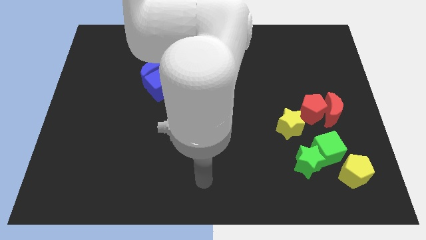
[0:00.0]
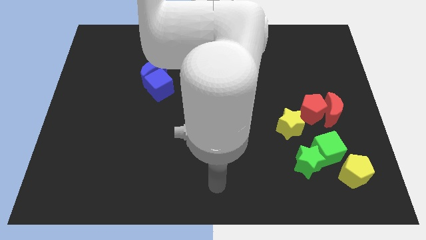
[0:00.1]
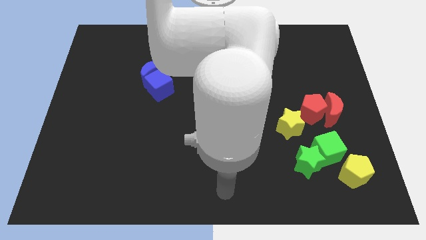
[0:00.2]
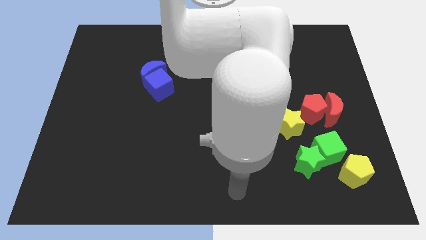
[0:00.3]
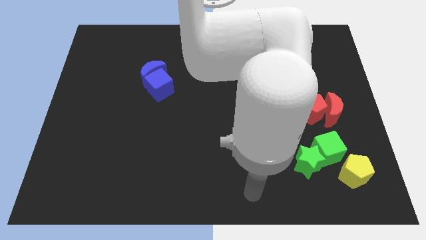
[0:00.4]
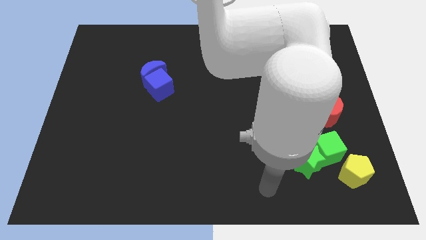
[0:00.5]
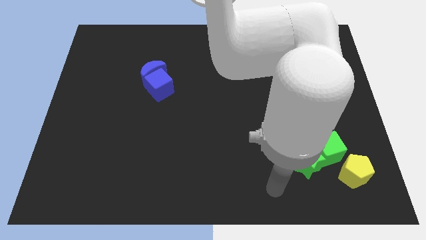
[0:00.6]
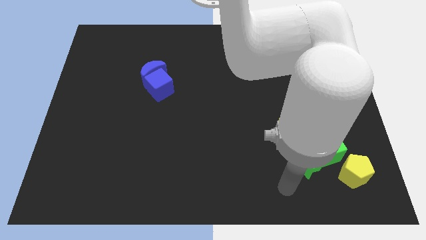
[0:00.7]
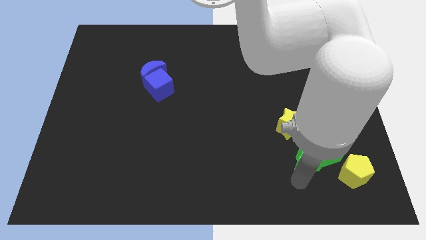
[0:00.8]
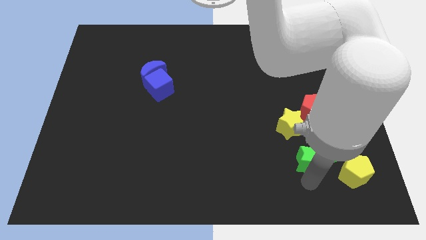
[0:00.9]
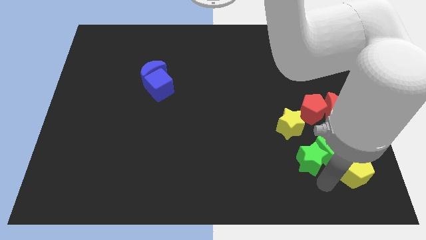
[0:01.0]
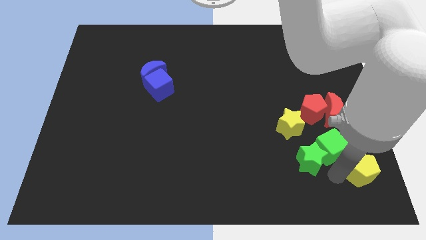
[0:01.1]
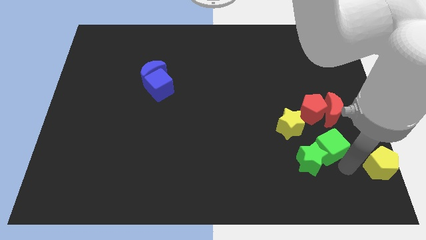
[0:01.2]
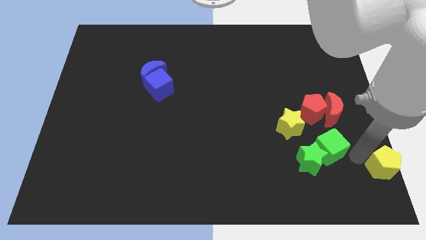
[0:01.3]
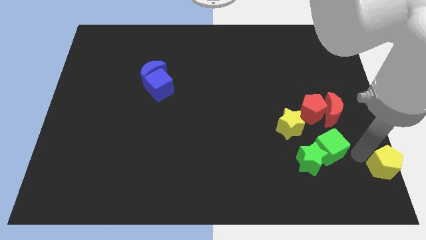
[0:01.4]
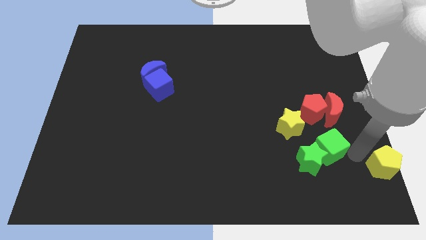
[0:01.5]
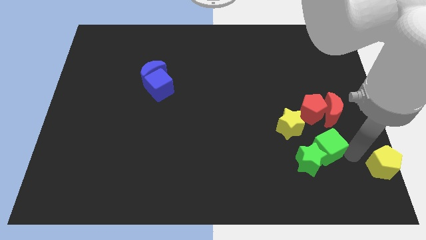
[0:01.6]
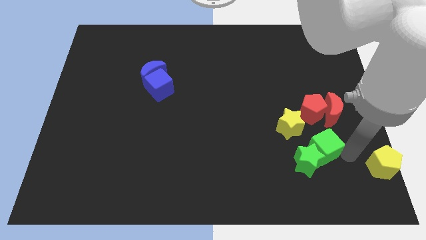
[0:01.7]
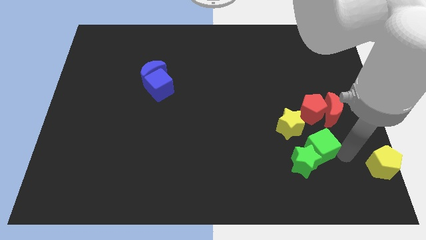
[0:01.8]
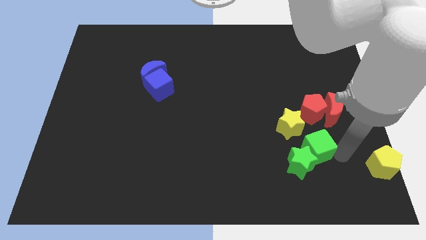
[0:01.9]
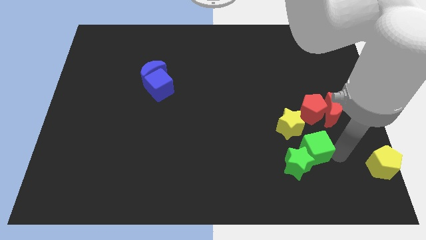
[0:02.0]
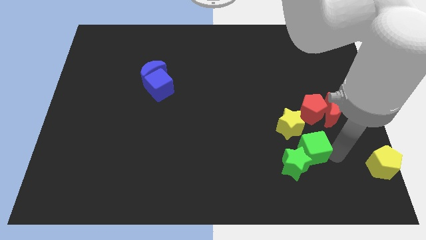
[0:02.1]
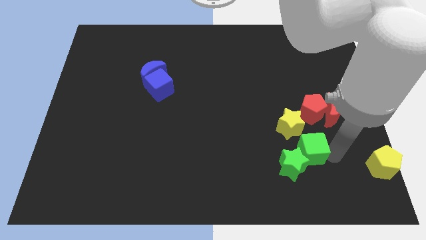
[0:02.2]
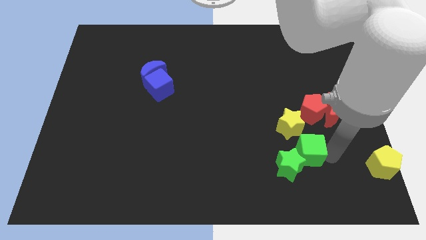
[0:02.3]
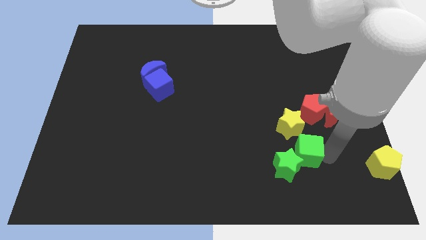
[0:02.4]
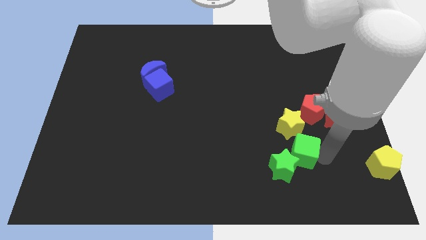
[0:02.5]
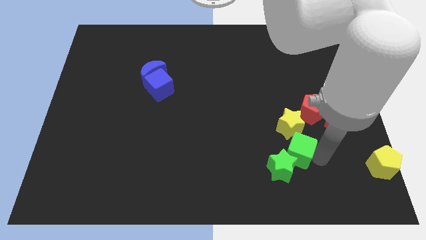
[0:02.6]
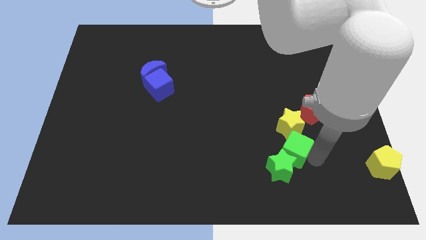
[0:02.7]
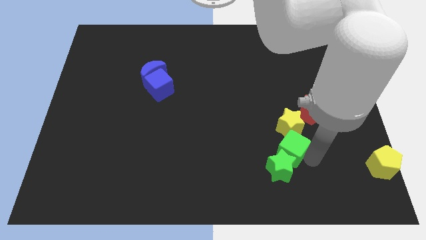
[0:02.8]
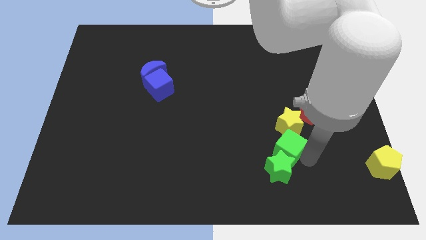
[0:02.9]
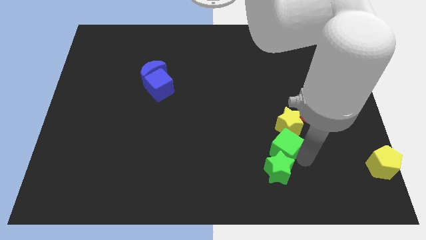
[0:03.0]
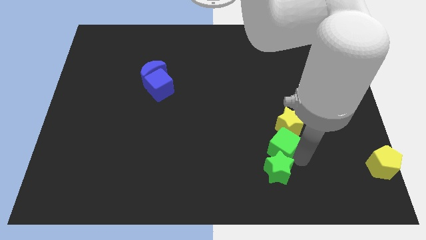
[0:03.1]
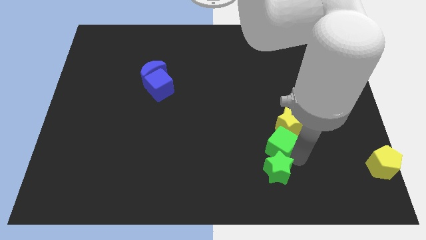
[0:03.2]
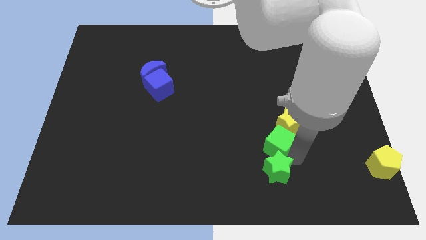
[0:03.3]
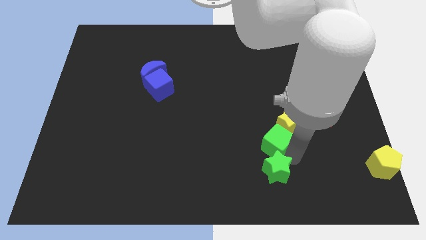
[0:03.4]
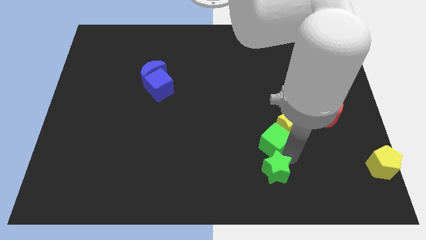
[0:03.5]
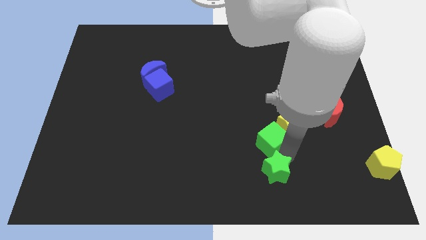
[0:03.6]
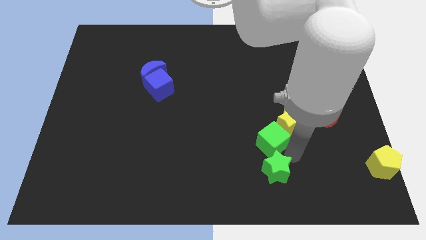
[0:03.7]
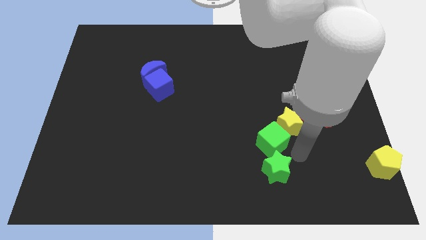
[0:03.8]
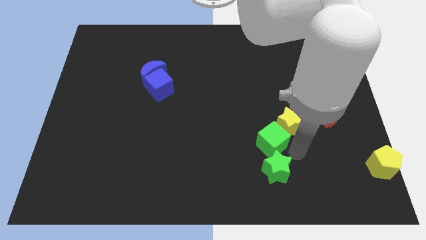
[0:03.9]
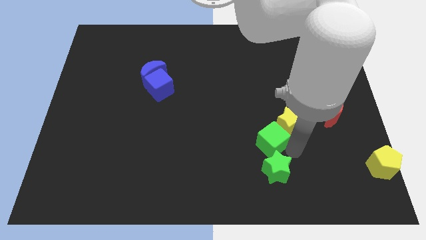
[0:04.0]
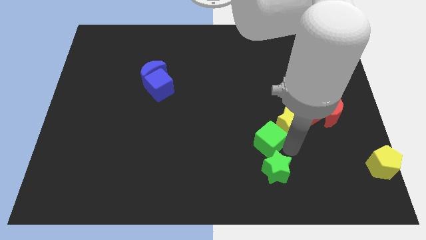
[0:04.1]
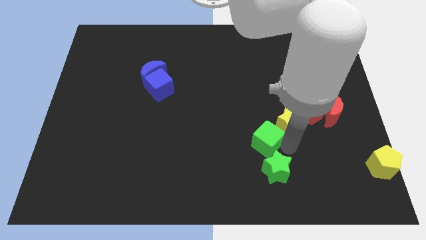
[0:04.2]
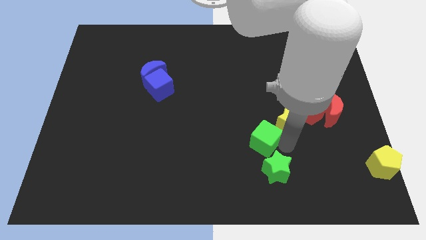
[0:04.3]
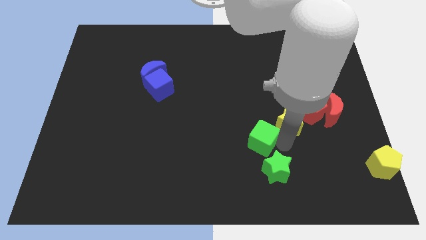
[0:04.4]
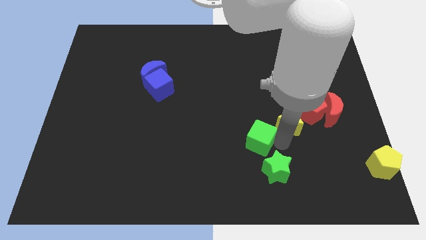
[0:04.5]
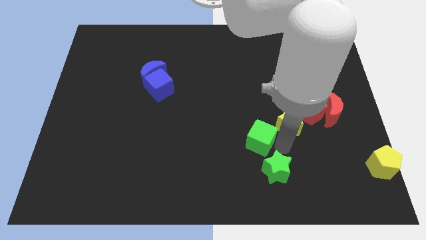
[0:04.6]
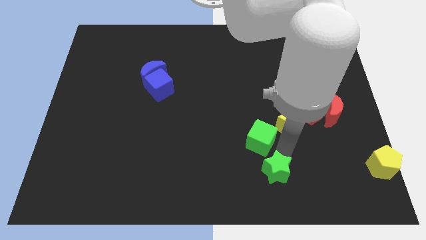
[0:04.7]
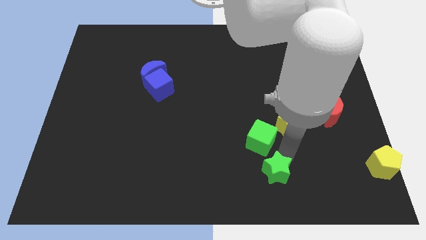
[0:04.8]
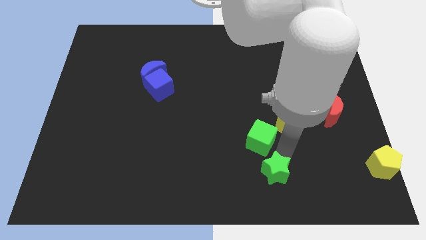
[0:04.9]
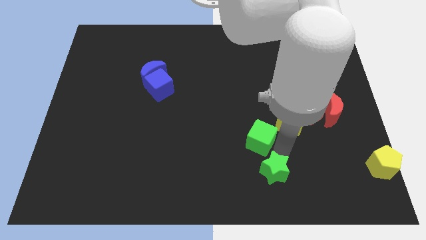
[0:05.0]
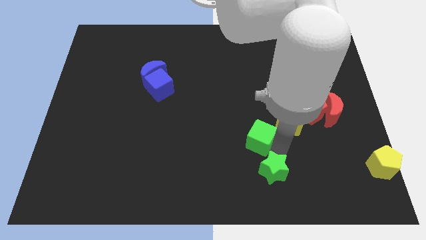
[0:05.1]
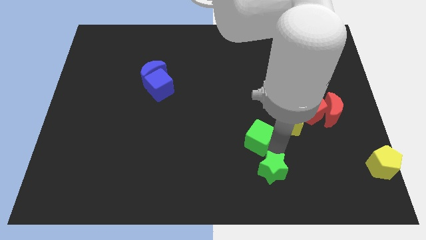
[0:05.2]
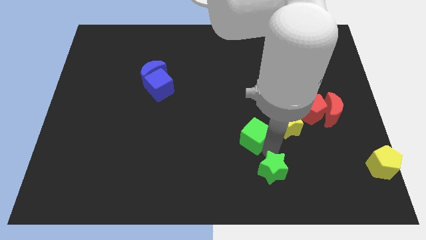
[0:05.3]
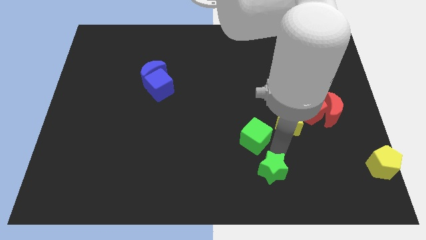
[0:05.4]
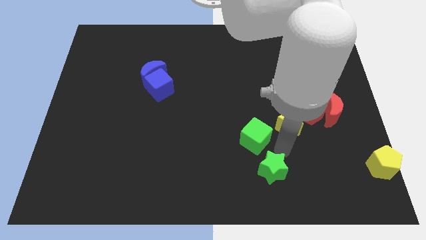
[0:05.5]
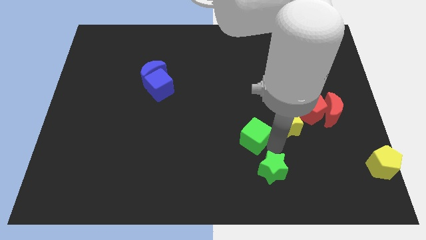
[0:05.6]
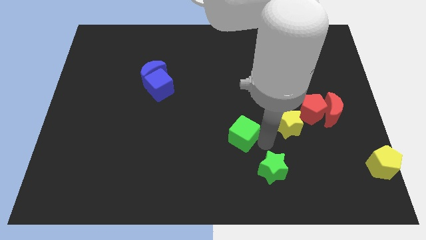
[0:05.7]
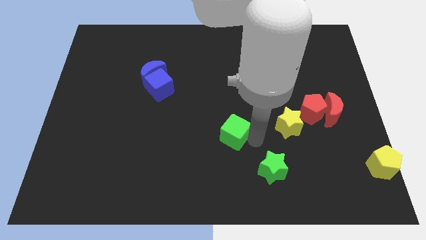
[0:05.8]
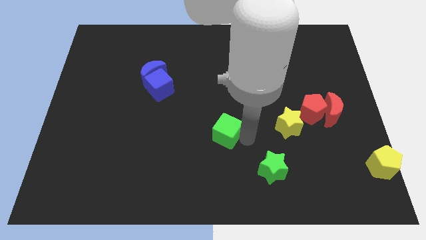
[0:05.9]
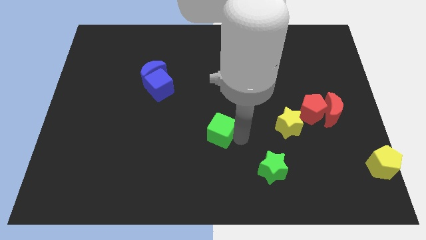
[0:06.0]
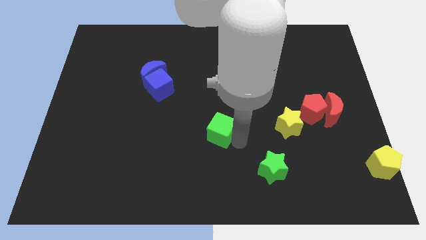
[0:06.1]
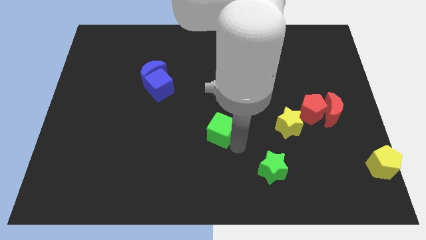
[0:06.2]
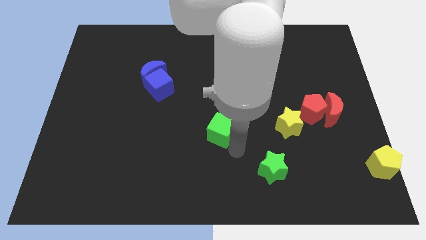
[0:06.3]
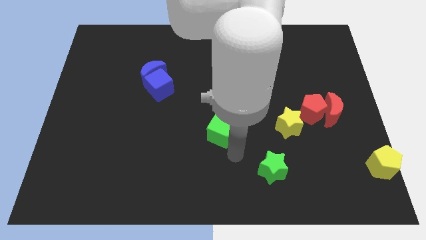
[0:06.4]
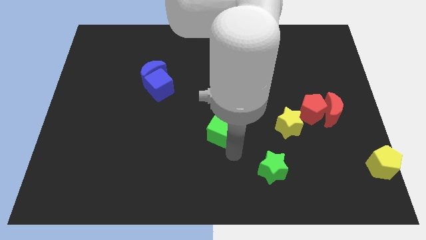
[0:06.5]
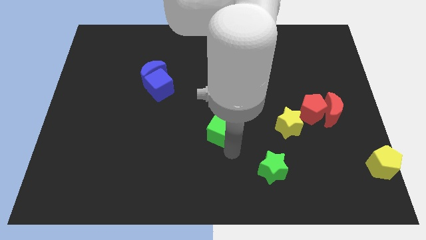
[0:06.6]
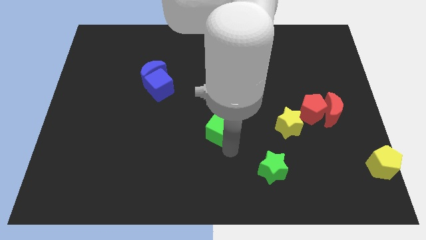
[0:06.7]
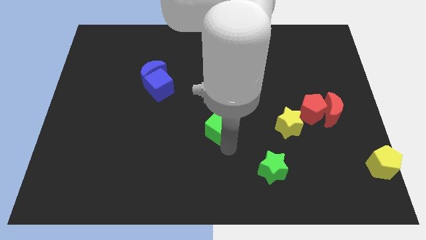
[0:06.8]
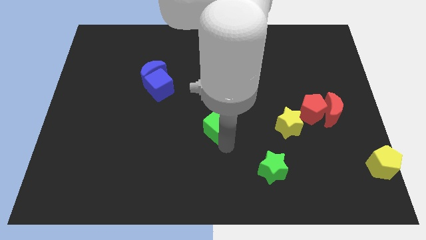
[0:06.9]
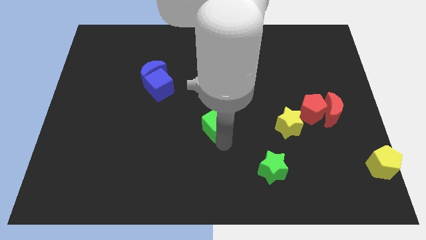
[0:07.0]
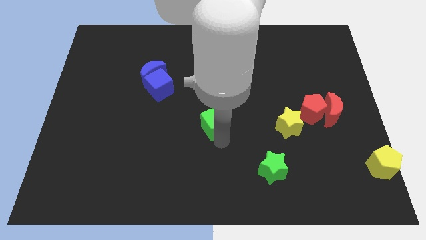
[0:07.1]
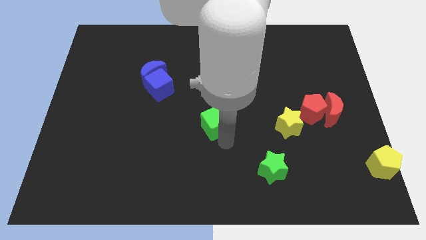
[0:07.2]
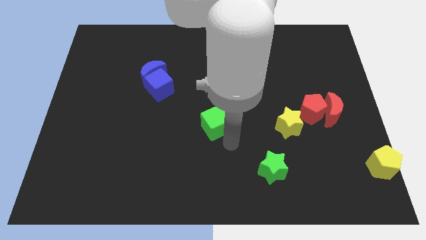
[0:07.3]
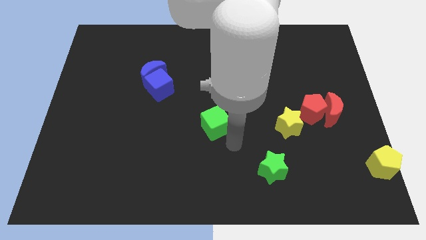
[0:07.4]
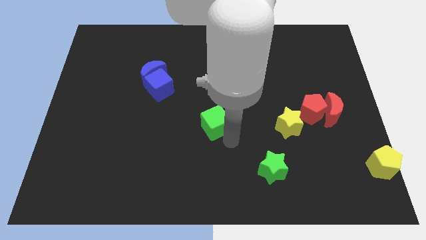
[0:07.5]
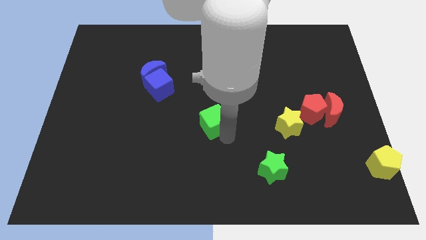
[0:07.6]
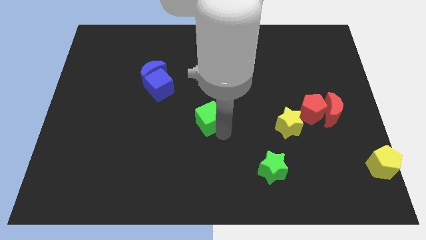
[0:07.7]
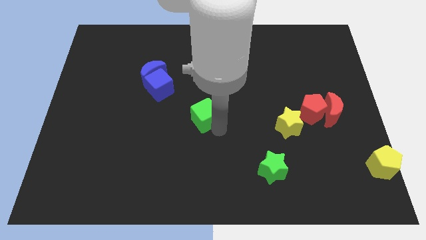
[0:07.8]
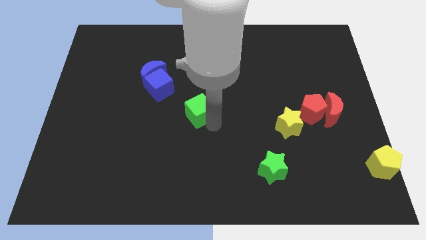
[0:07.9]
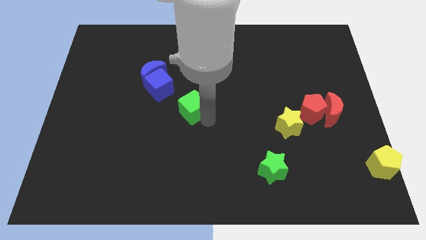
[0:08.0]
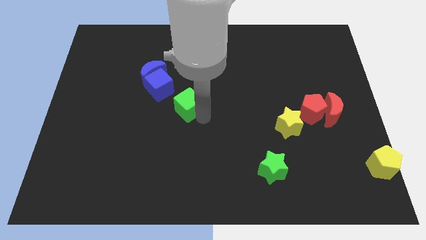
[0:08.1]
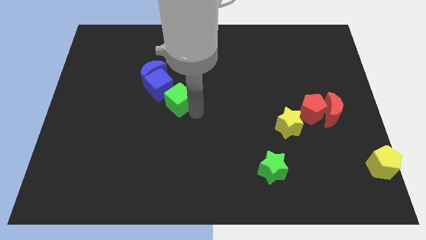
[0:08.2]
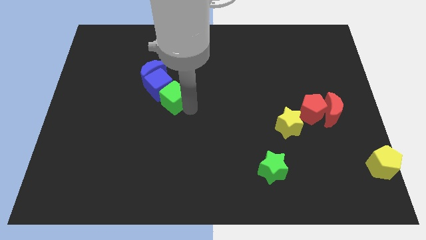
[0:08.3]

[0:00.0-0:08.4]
slide the green cube towards the blue cube
